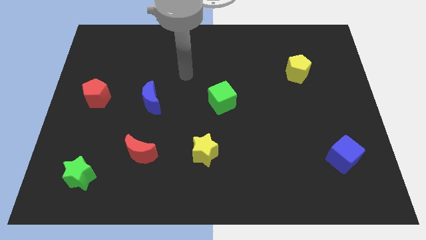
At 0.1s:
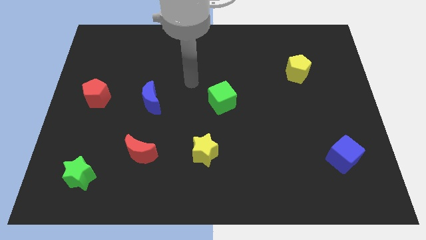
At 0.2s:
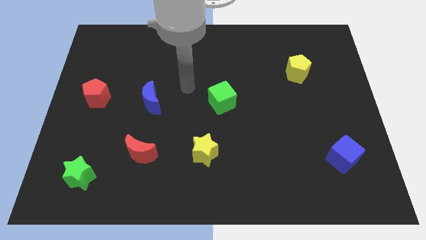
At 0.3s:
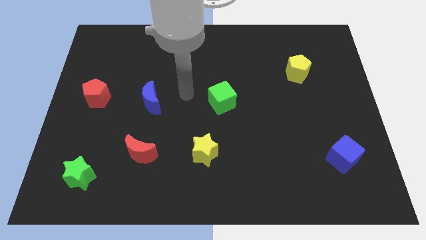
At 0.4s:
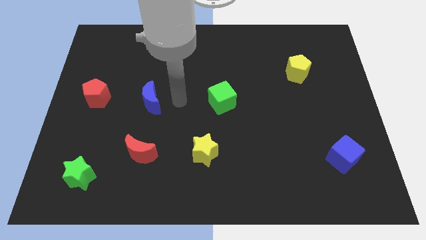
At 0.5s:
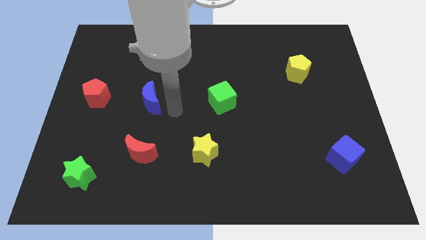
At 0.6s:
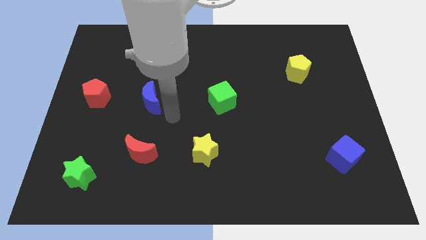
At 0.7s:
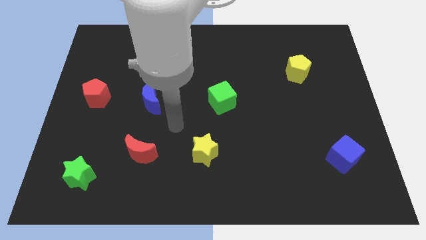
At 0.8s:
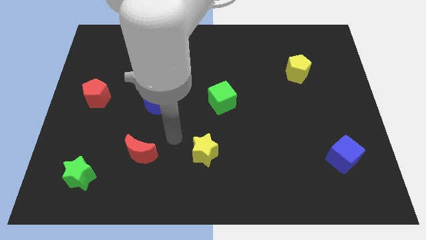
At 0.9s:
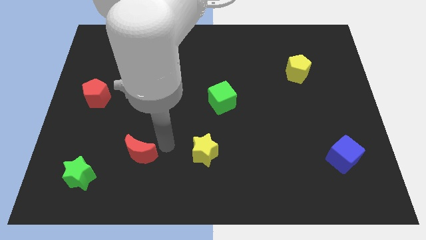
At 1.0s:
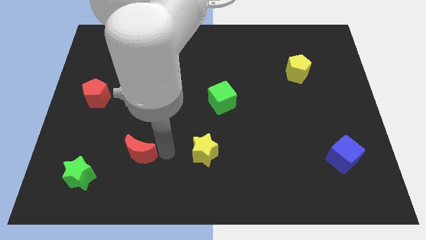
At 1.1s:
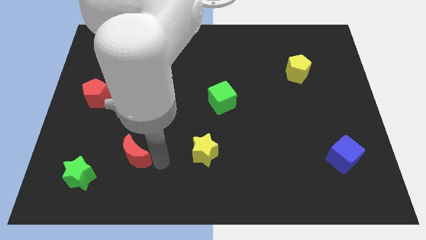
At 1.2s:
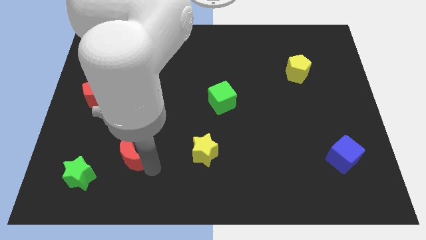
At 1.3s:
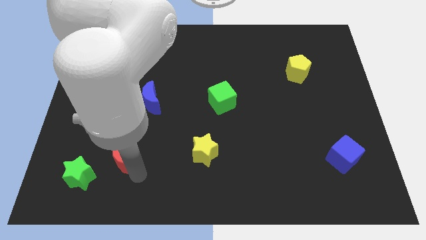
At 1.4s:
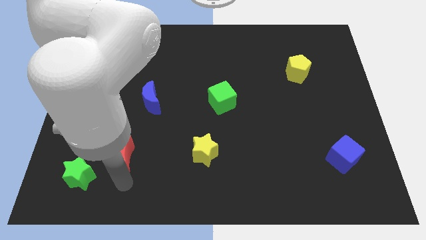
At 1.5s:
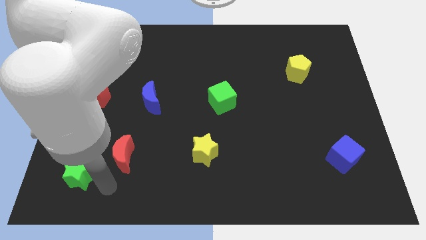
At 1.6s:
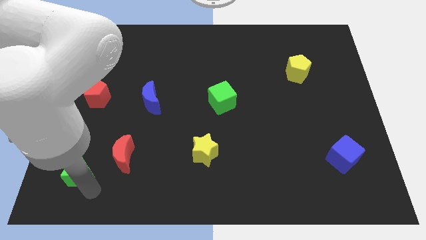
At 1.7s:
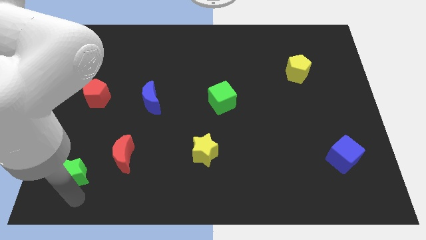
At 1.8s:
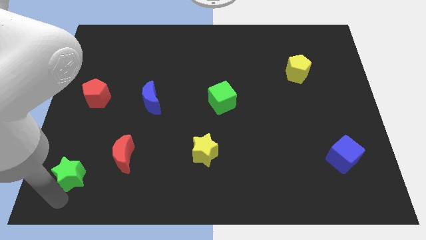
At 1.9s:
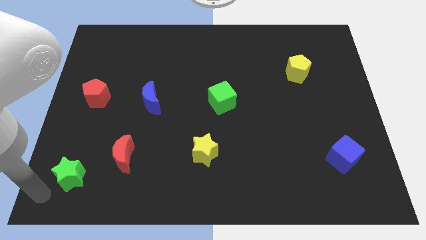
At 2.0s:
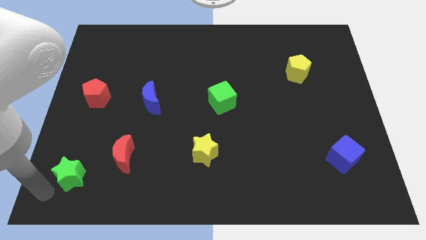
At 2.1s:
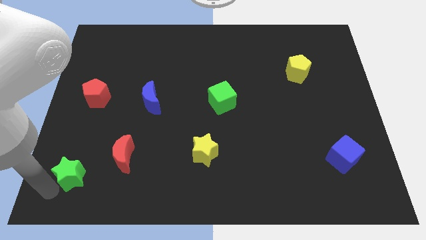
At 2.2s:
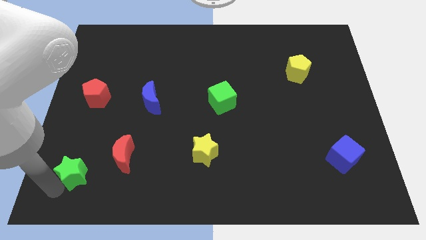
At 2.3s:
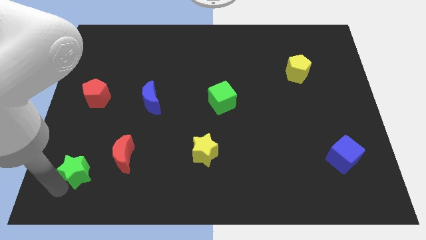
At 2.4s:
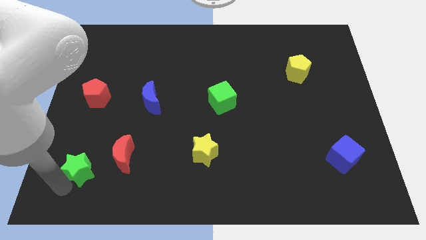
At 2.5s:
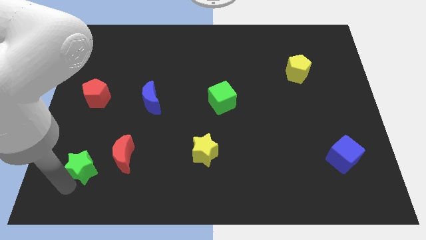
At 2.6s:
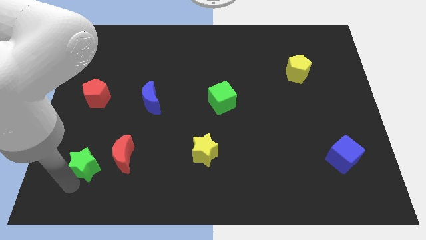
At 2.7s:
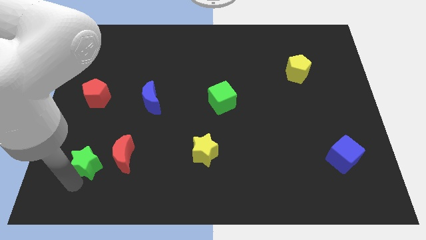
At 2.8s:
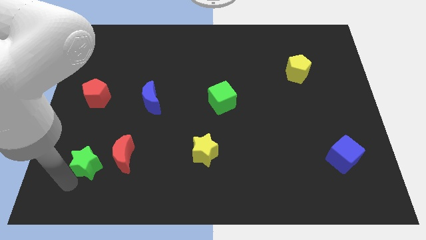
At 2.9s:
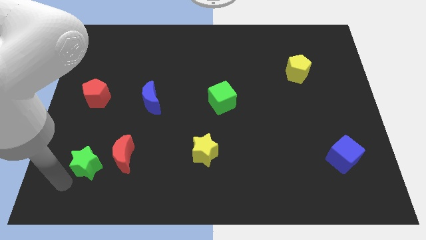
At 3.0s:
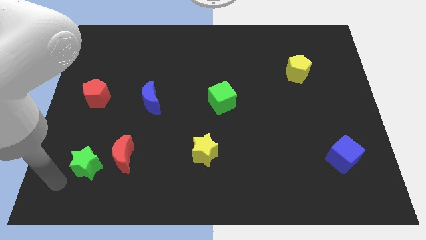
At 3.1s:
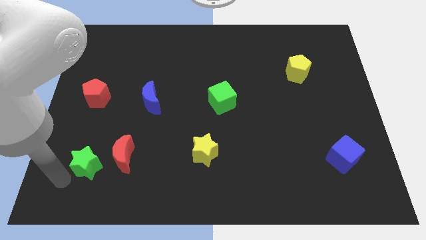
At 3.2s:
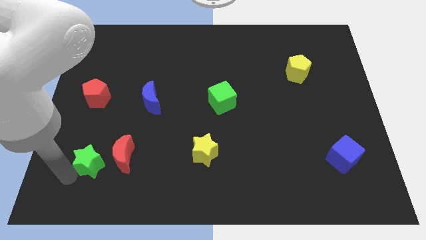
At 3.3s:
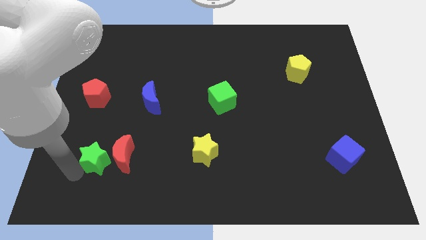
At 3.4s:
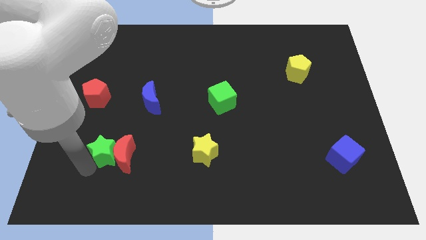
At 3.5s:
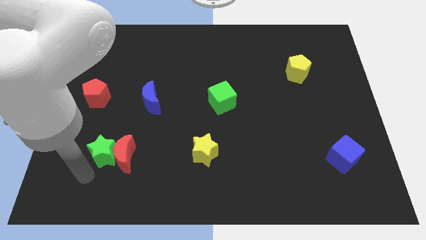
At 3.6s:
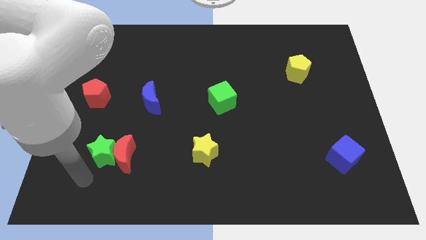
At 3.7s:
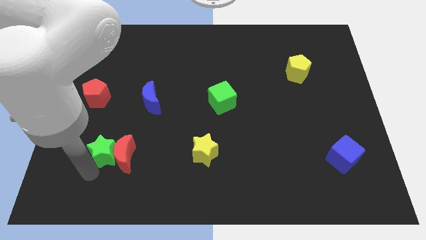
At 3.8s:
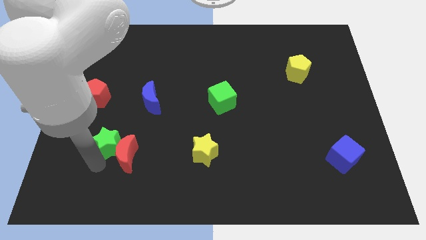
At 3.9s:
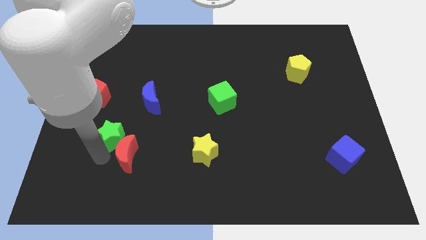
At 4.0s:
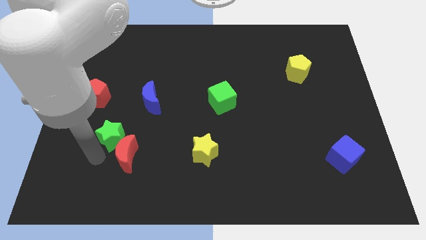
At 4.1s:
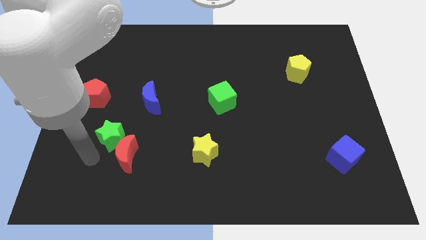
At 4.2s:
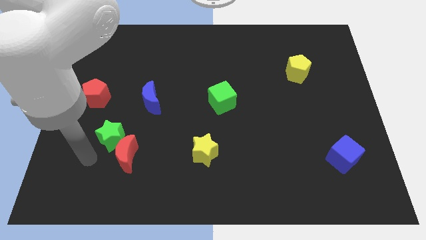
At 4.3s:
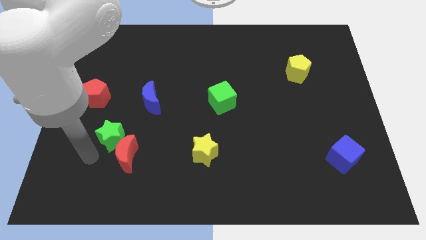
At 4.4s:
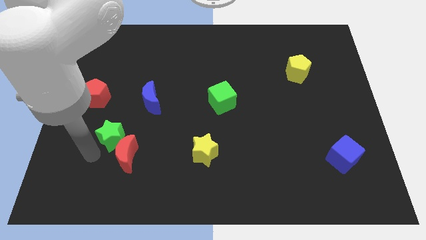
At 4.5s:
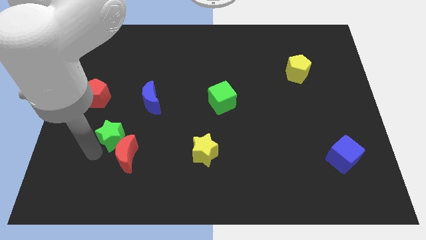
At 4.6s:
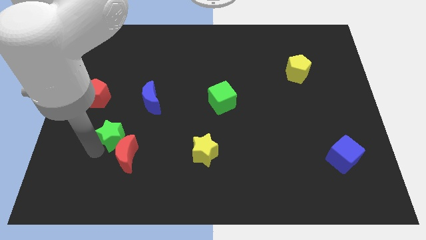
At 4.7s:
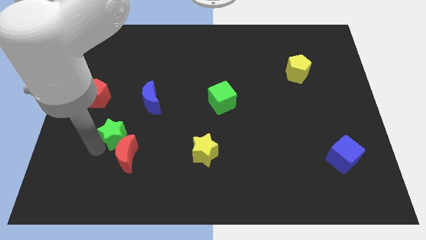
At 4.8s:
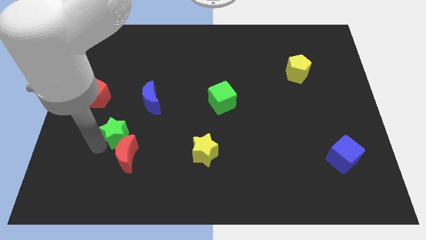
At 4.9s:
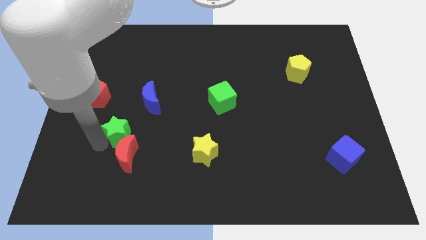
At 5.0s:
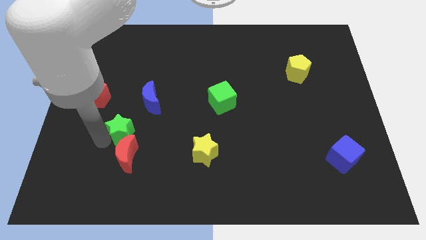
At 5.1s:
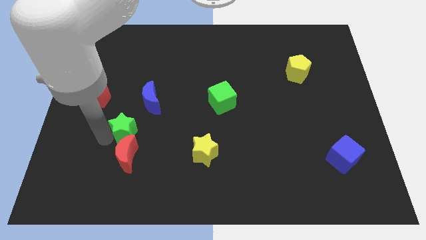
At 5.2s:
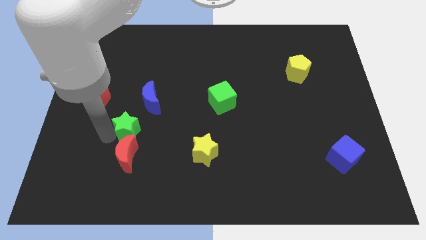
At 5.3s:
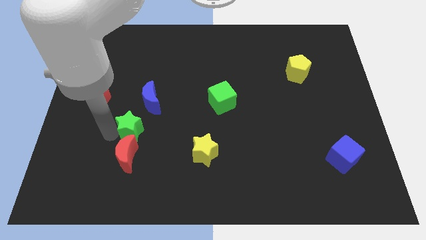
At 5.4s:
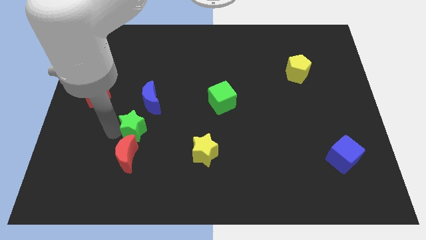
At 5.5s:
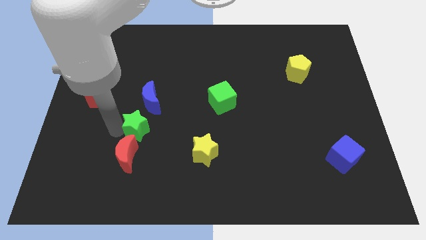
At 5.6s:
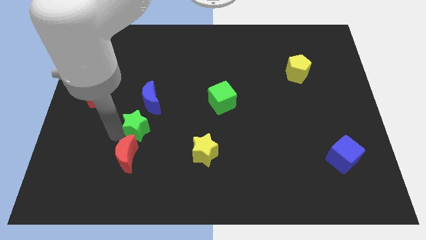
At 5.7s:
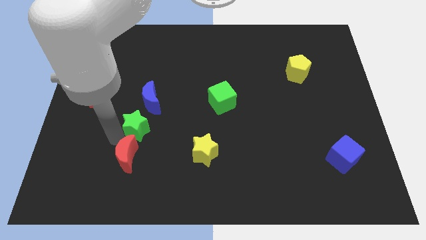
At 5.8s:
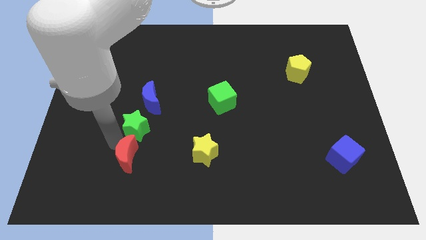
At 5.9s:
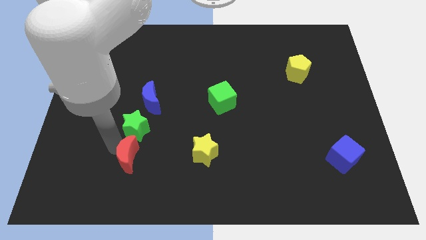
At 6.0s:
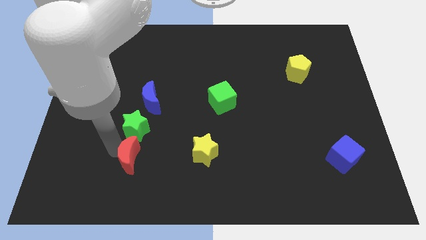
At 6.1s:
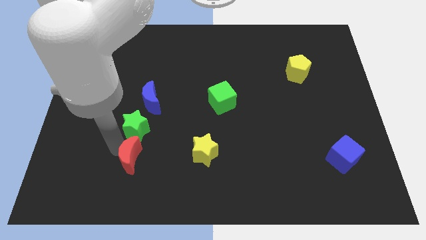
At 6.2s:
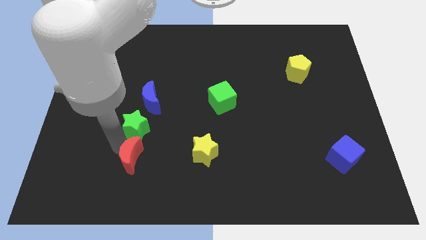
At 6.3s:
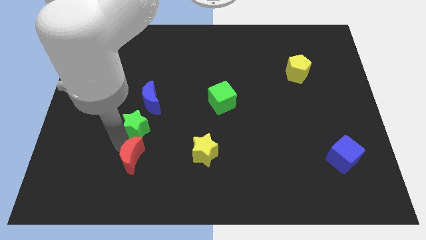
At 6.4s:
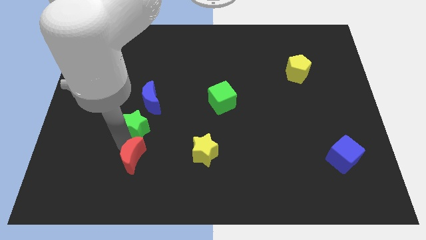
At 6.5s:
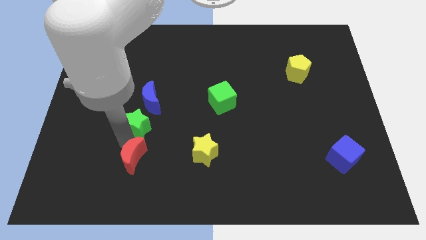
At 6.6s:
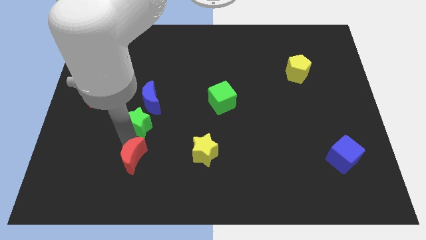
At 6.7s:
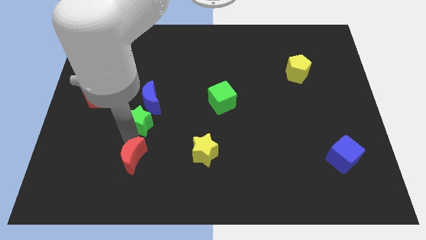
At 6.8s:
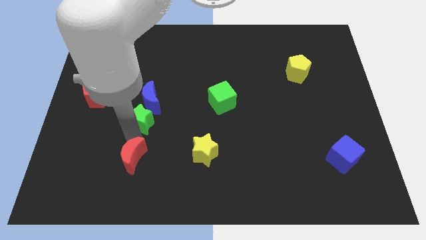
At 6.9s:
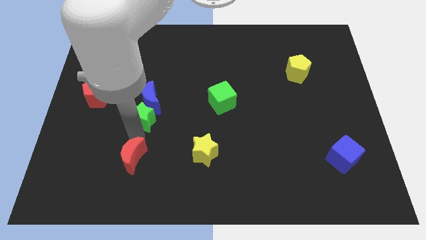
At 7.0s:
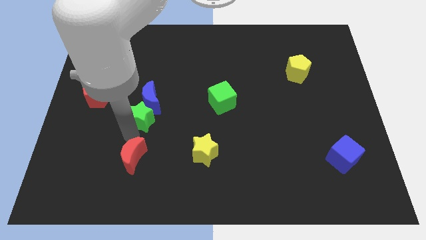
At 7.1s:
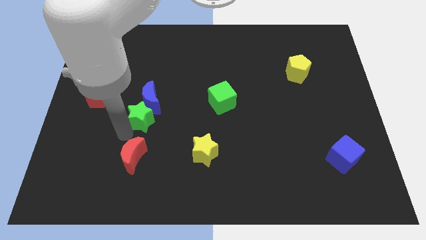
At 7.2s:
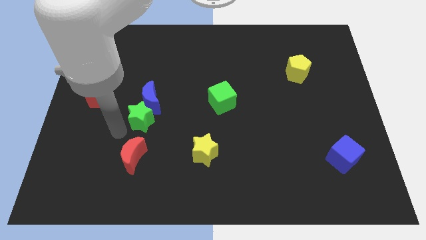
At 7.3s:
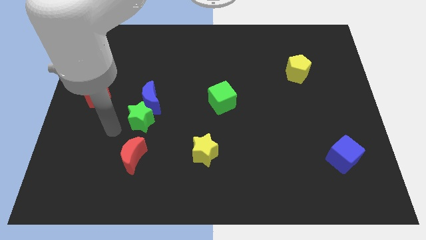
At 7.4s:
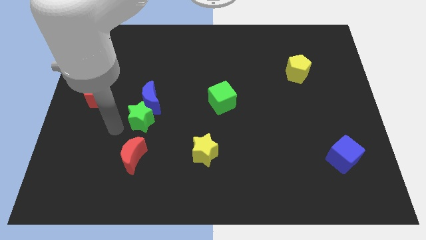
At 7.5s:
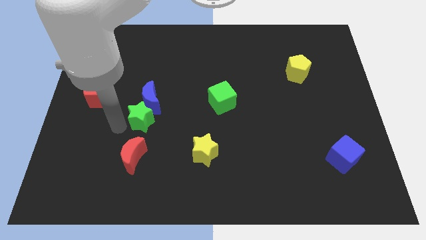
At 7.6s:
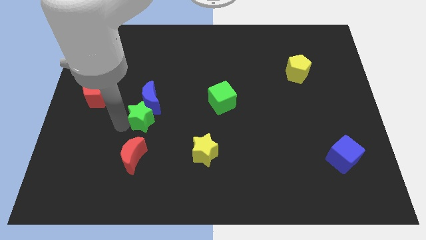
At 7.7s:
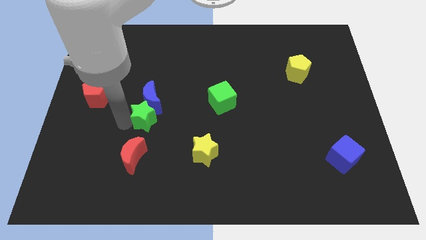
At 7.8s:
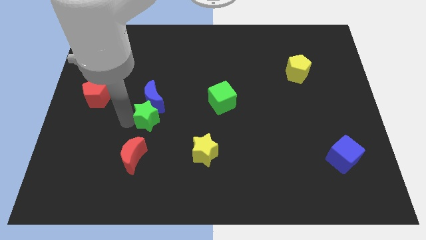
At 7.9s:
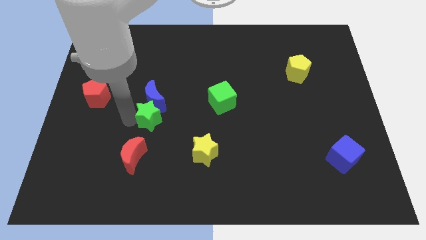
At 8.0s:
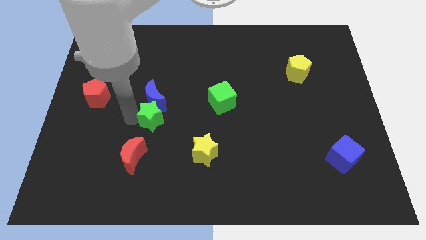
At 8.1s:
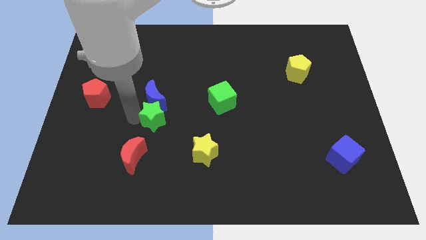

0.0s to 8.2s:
move the green star up and right diagonally
